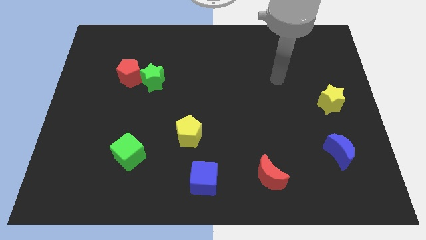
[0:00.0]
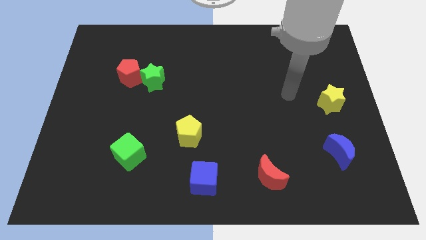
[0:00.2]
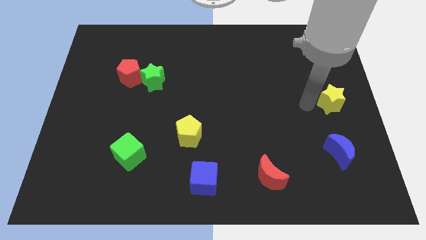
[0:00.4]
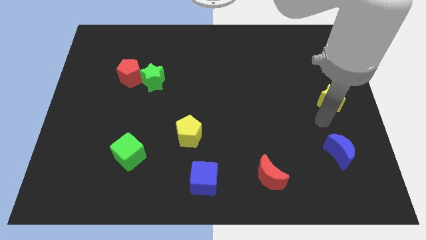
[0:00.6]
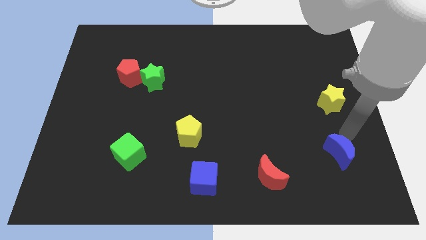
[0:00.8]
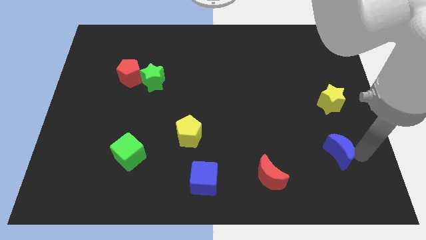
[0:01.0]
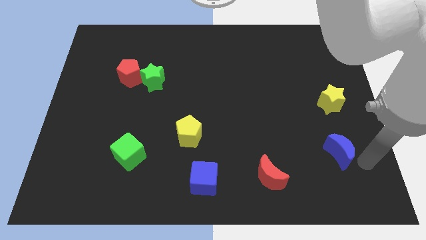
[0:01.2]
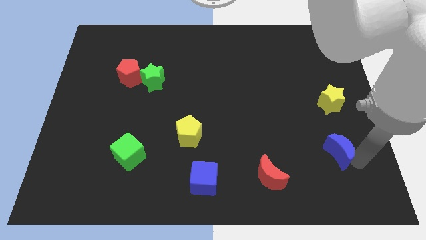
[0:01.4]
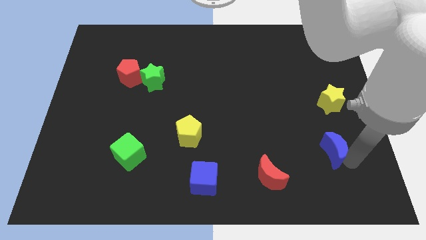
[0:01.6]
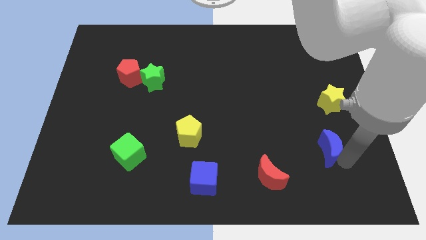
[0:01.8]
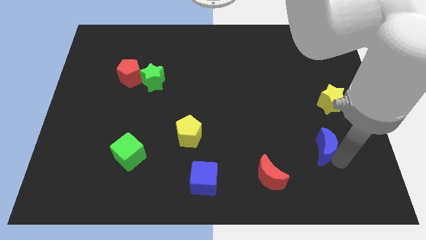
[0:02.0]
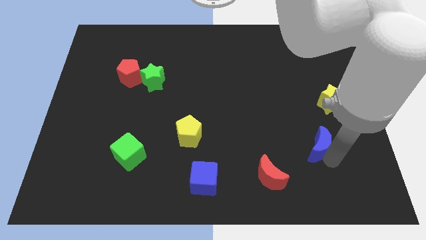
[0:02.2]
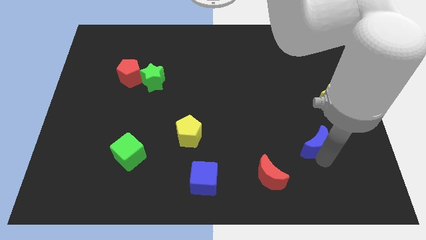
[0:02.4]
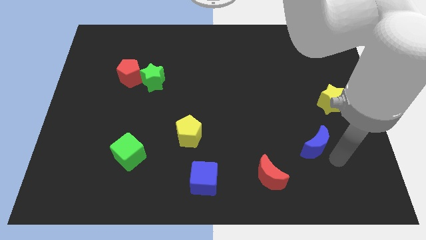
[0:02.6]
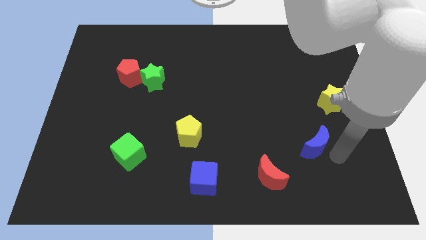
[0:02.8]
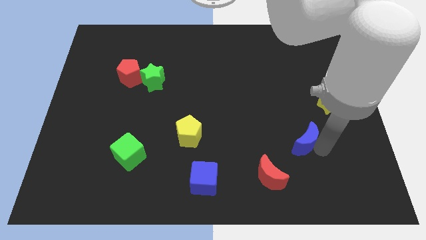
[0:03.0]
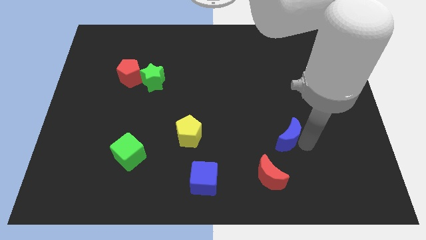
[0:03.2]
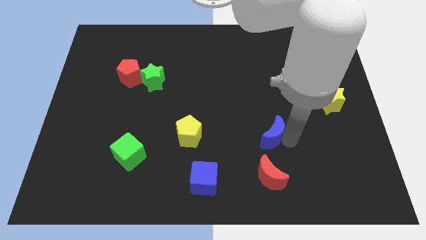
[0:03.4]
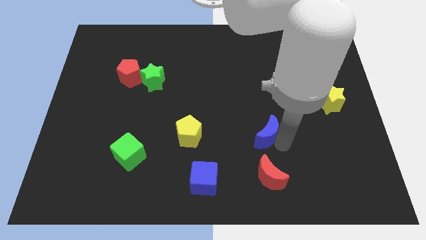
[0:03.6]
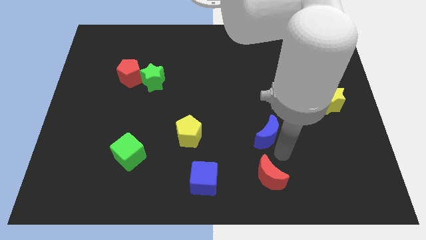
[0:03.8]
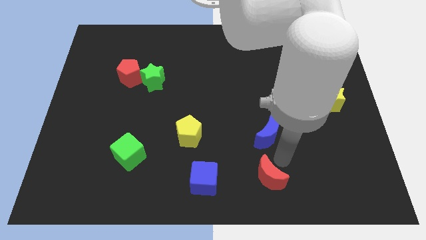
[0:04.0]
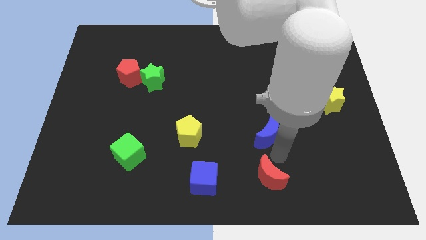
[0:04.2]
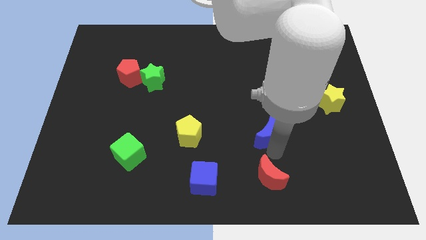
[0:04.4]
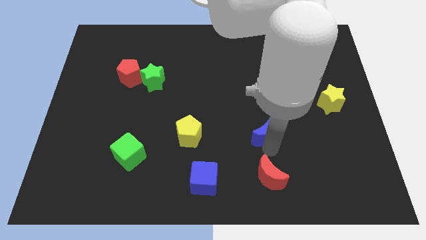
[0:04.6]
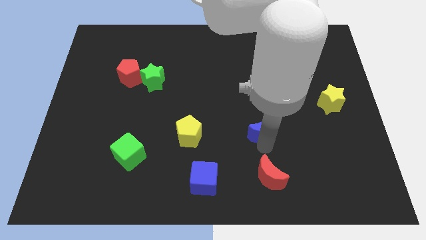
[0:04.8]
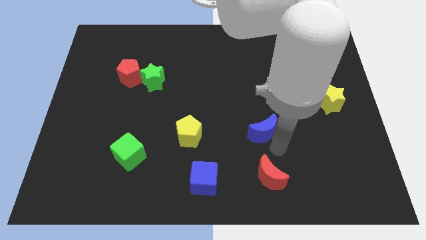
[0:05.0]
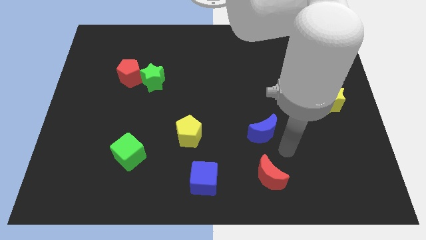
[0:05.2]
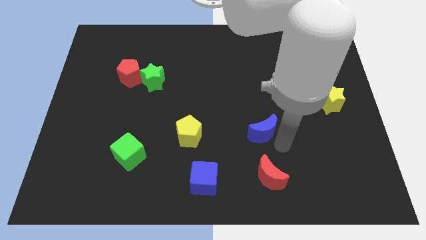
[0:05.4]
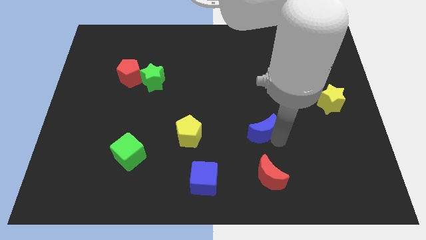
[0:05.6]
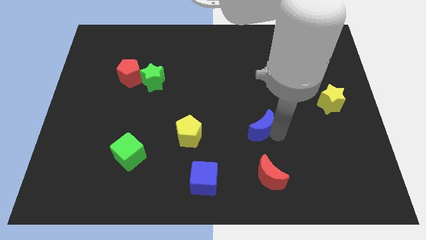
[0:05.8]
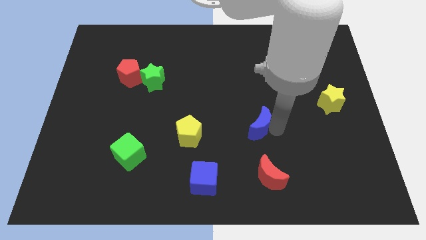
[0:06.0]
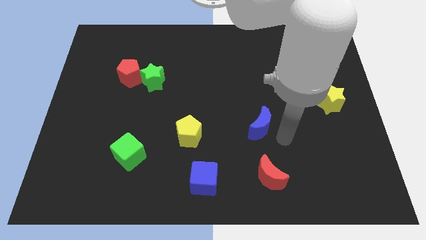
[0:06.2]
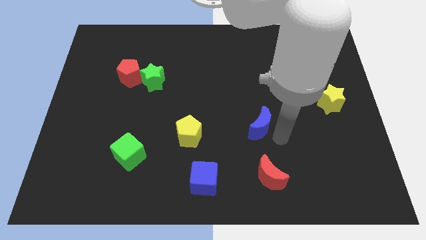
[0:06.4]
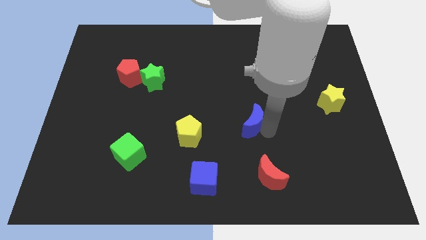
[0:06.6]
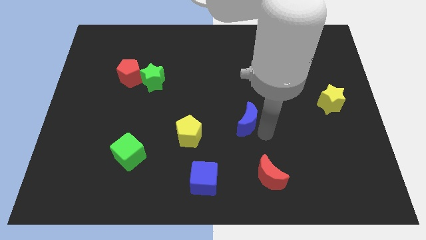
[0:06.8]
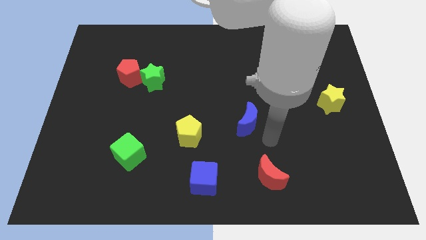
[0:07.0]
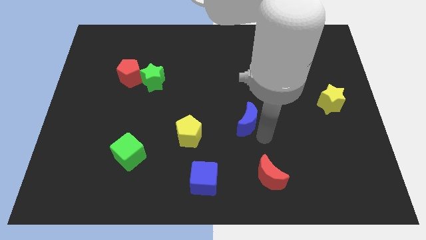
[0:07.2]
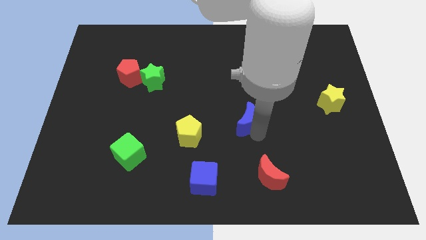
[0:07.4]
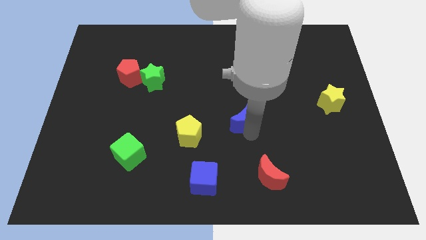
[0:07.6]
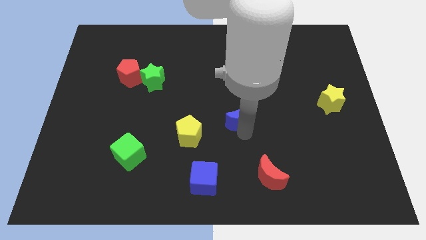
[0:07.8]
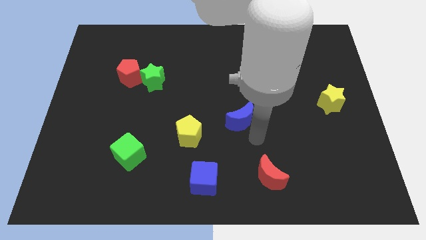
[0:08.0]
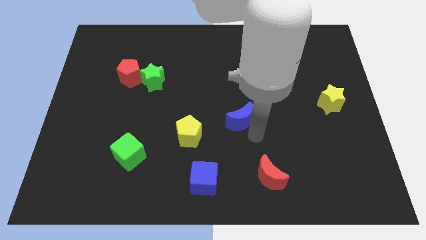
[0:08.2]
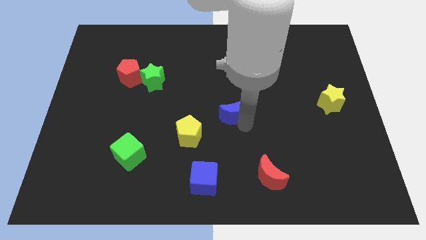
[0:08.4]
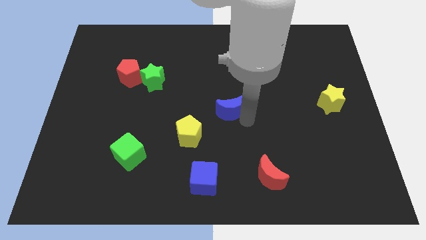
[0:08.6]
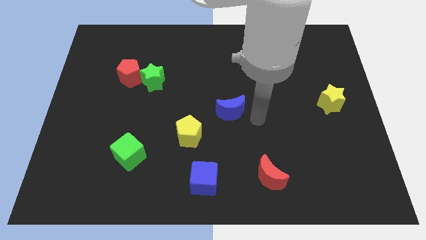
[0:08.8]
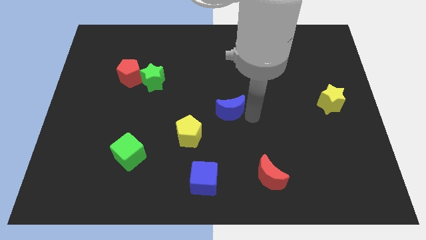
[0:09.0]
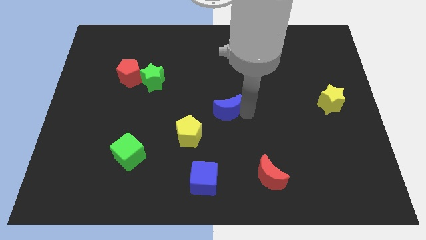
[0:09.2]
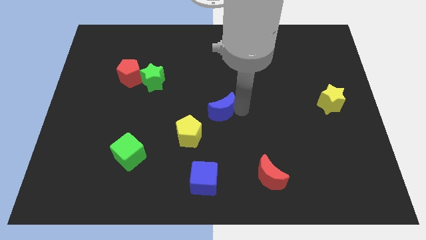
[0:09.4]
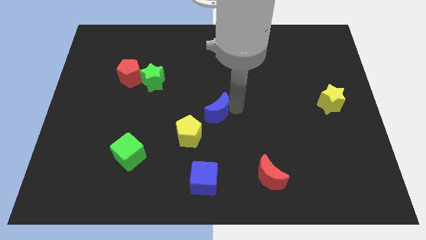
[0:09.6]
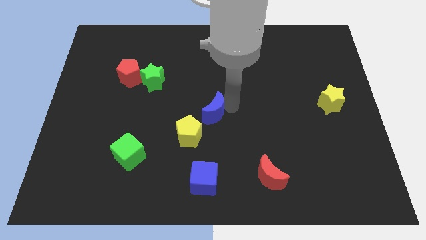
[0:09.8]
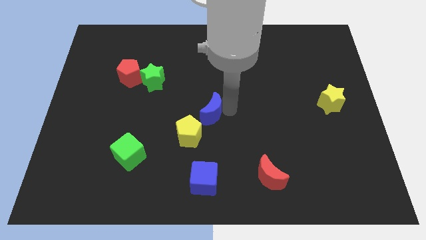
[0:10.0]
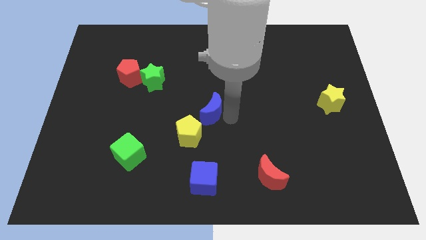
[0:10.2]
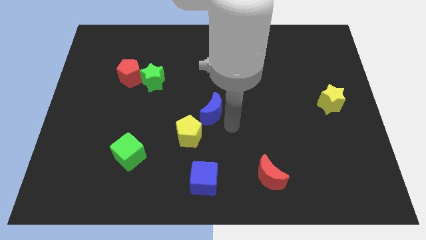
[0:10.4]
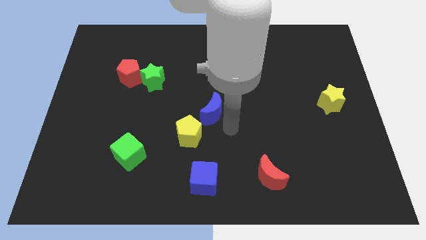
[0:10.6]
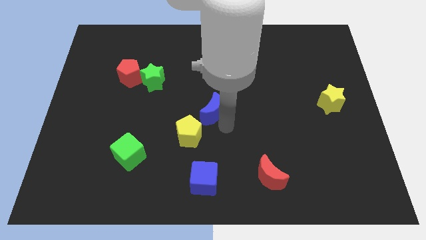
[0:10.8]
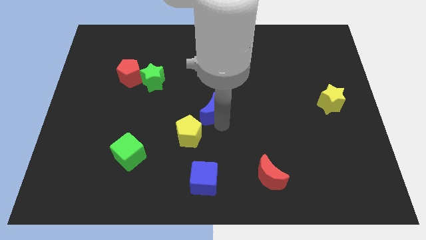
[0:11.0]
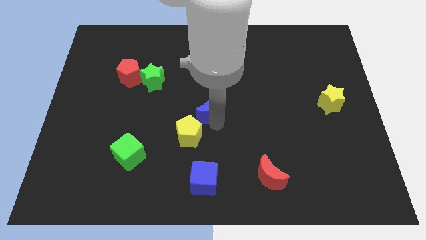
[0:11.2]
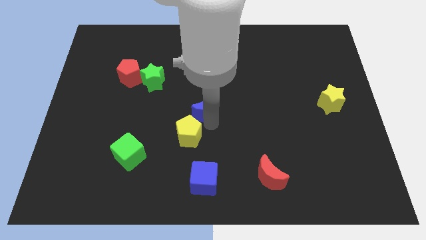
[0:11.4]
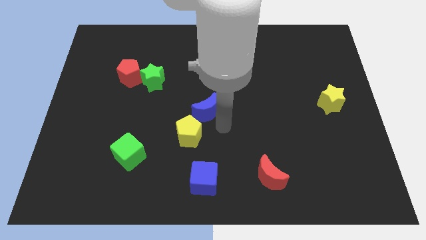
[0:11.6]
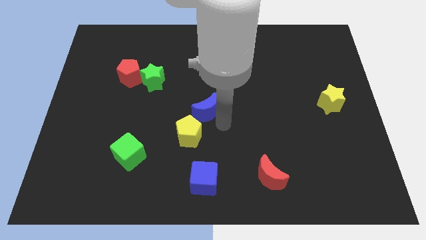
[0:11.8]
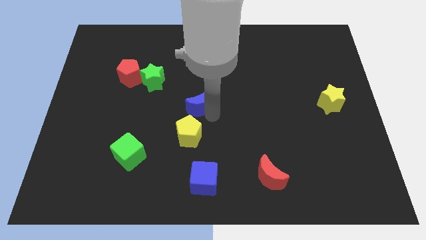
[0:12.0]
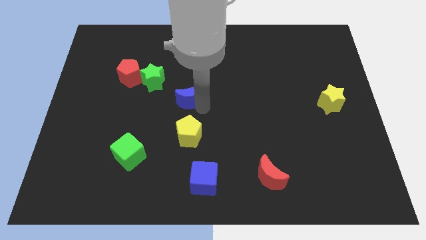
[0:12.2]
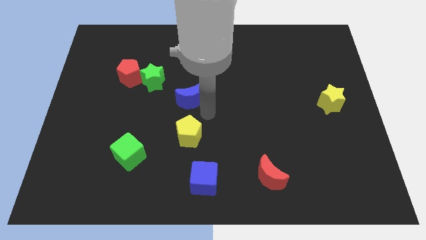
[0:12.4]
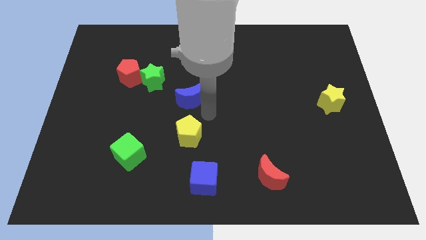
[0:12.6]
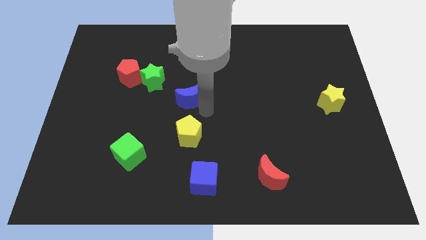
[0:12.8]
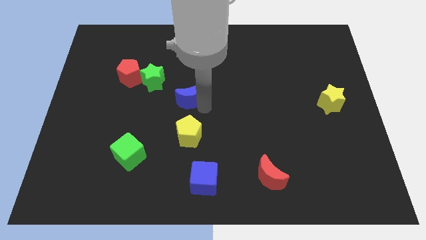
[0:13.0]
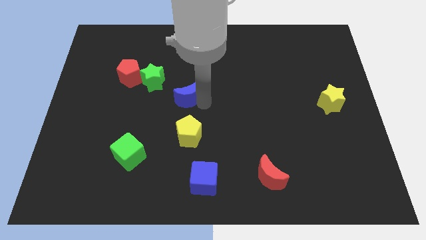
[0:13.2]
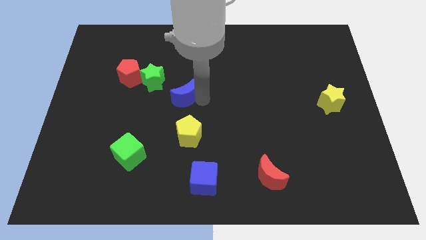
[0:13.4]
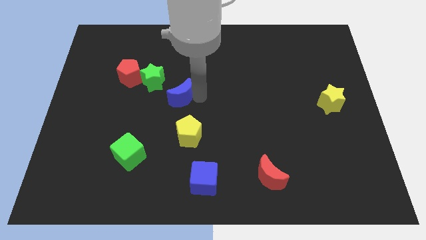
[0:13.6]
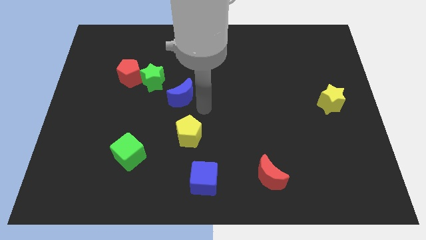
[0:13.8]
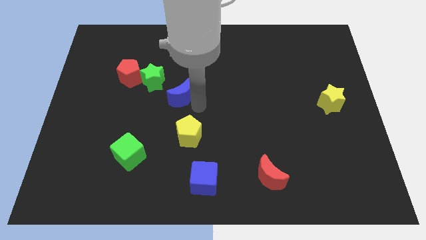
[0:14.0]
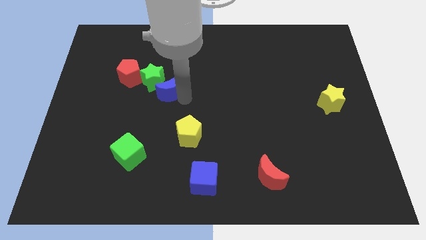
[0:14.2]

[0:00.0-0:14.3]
push the blue moon next to the green star

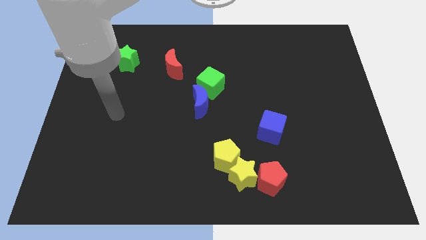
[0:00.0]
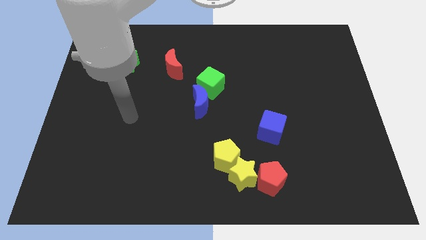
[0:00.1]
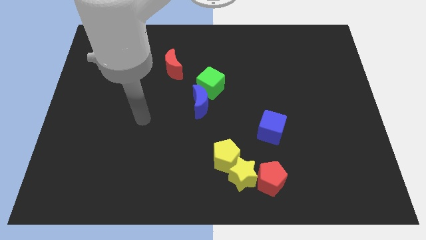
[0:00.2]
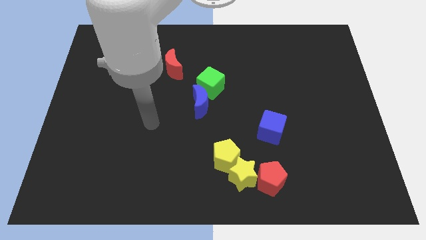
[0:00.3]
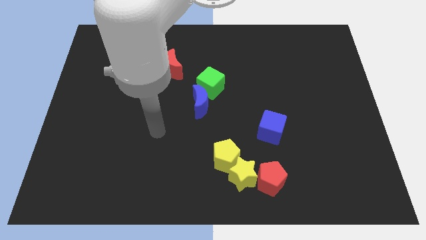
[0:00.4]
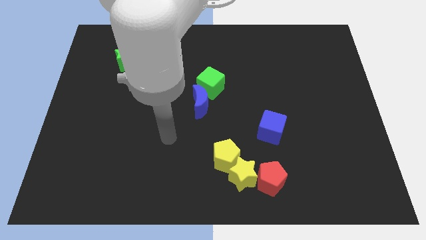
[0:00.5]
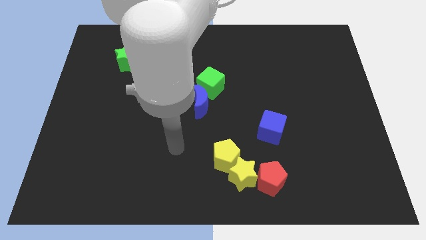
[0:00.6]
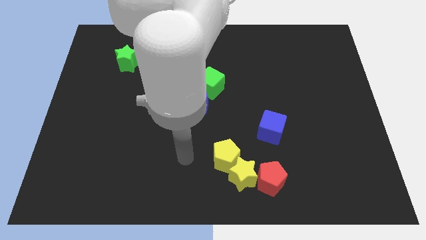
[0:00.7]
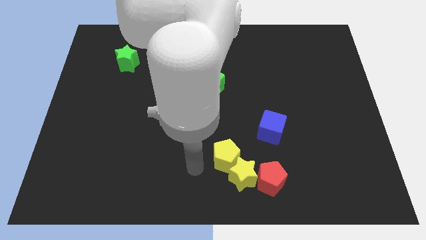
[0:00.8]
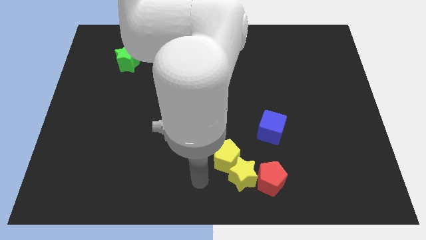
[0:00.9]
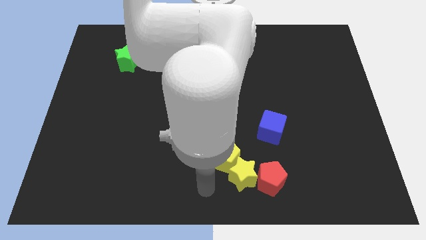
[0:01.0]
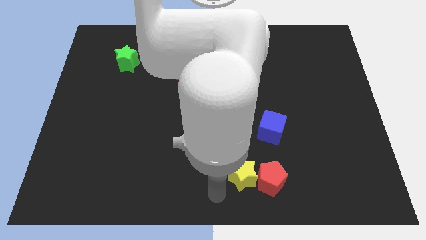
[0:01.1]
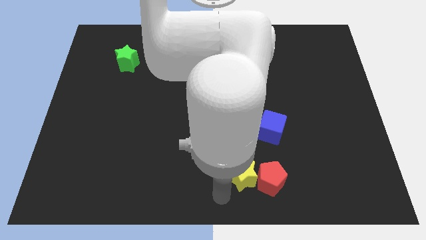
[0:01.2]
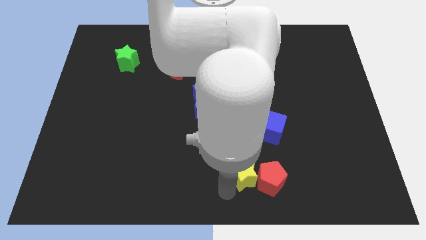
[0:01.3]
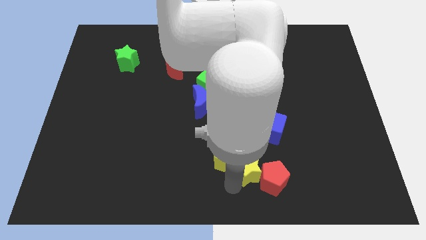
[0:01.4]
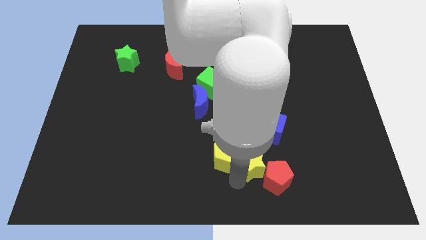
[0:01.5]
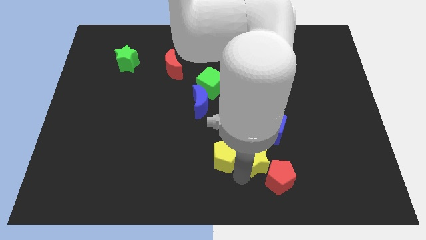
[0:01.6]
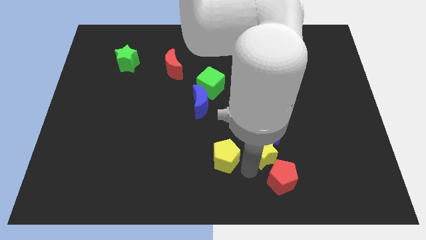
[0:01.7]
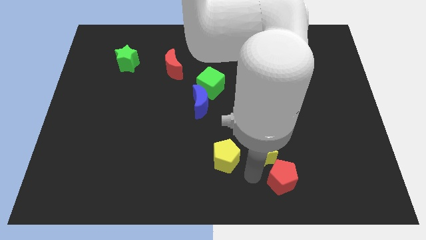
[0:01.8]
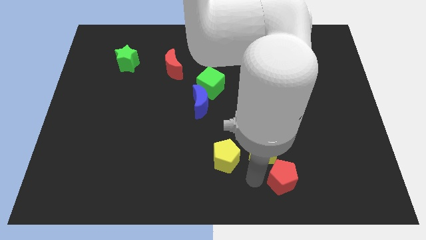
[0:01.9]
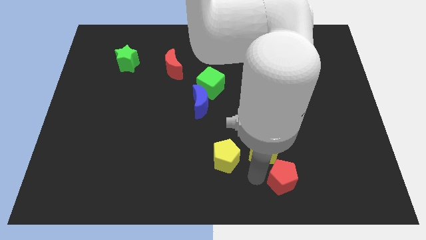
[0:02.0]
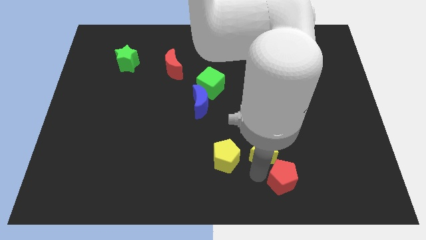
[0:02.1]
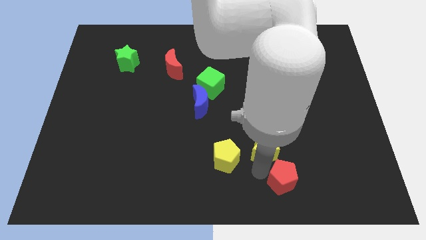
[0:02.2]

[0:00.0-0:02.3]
slide the yellow star close to the blue cube
